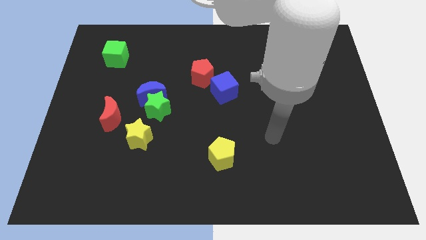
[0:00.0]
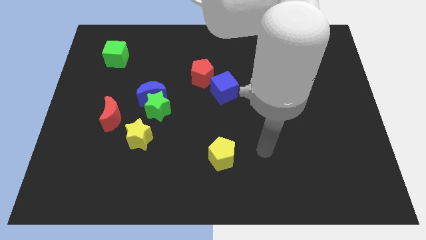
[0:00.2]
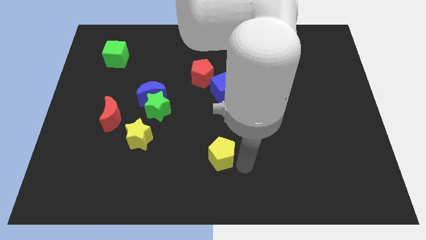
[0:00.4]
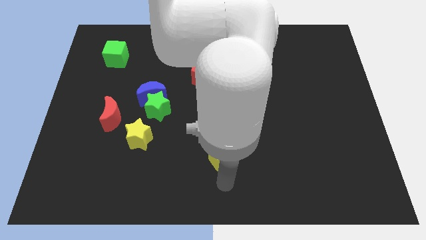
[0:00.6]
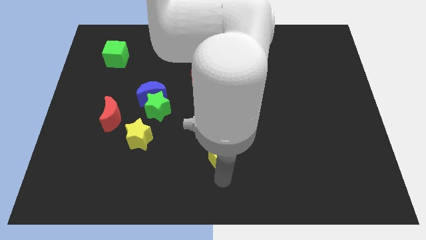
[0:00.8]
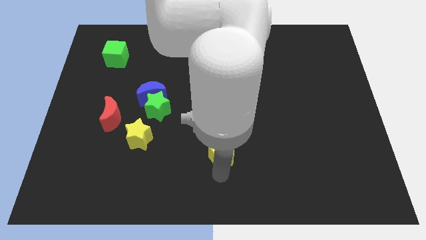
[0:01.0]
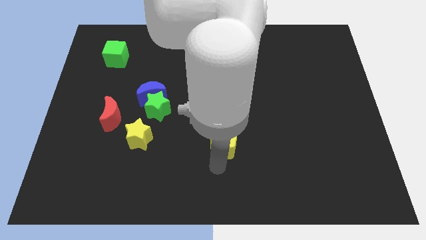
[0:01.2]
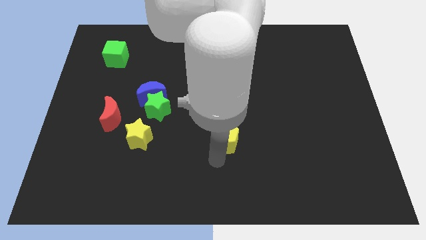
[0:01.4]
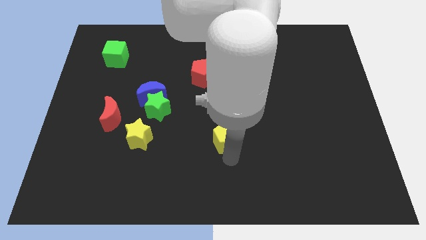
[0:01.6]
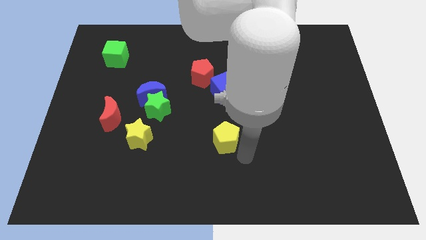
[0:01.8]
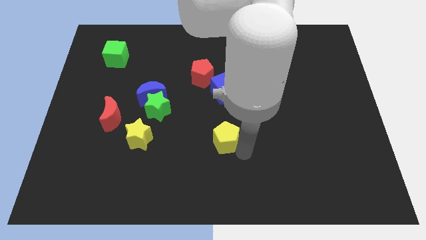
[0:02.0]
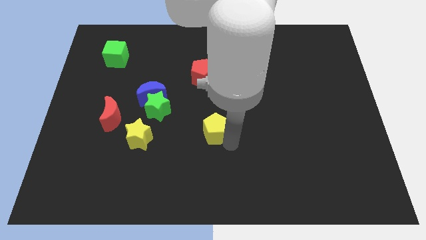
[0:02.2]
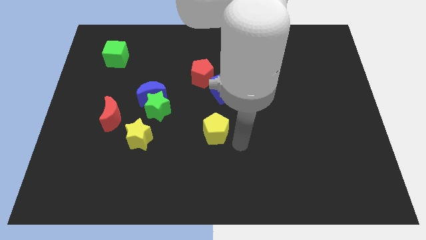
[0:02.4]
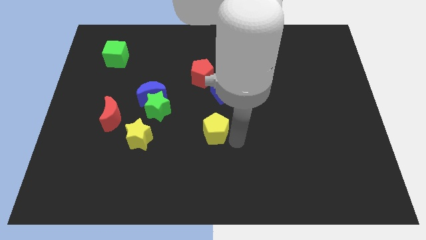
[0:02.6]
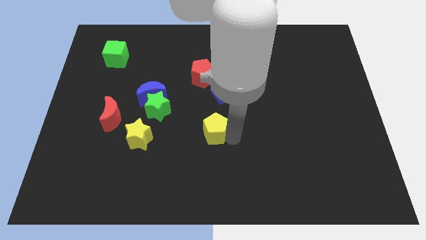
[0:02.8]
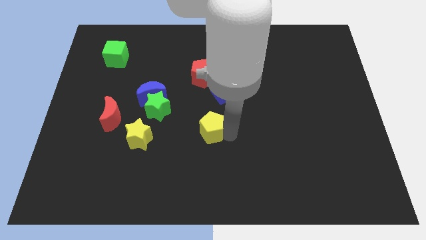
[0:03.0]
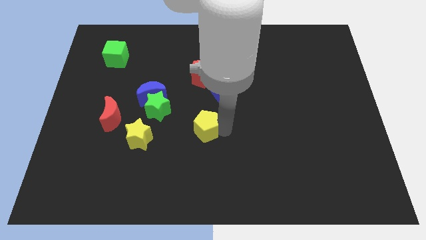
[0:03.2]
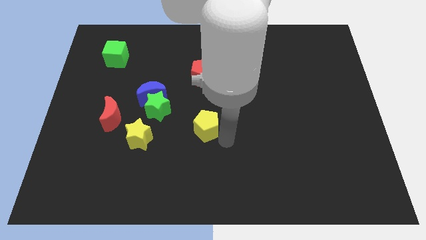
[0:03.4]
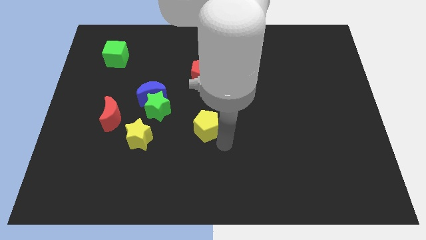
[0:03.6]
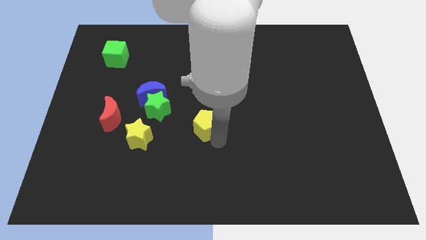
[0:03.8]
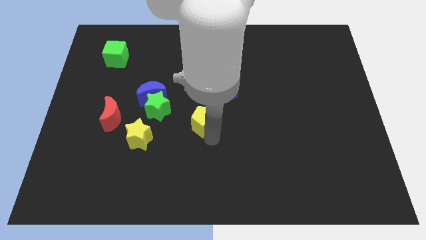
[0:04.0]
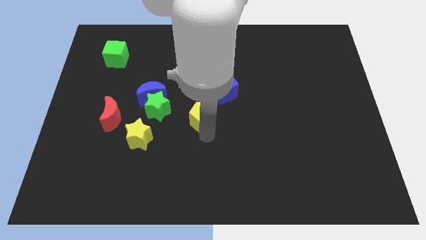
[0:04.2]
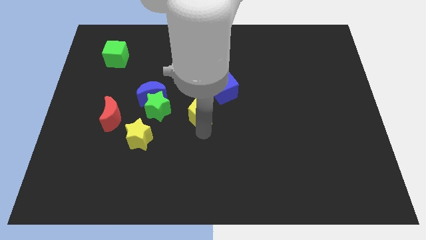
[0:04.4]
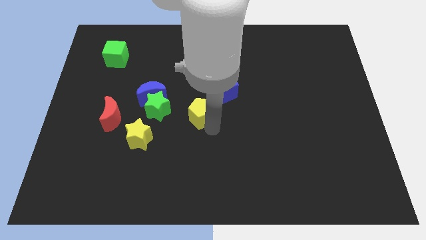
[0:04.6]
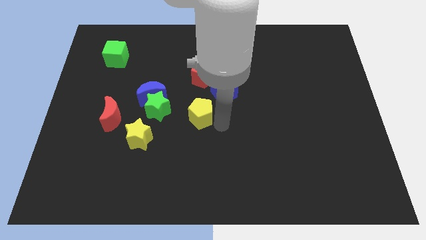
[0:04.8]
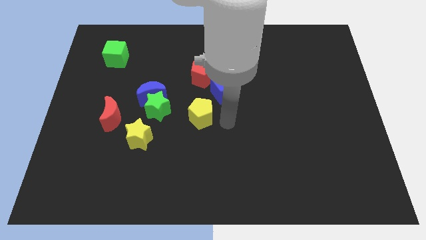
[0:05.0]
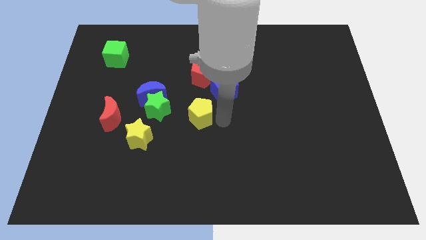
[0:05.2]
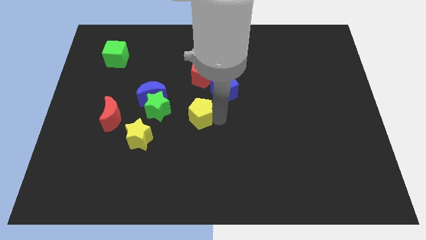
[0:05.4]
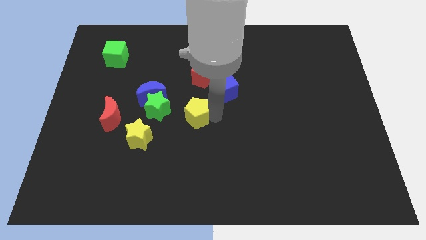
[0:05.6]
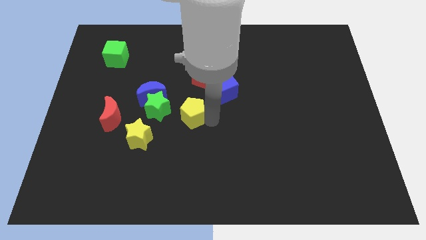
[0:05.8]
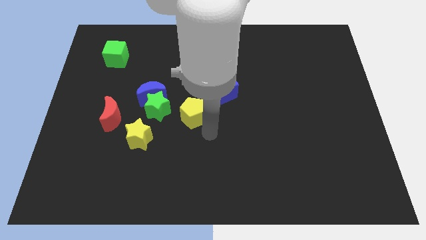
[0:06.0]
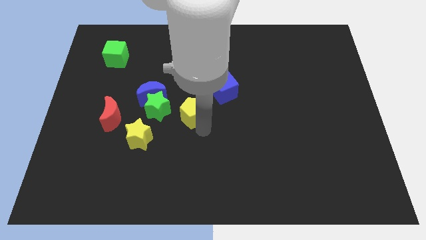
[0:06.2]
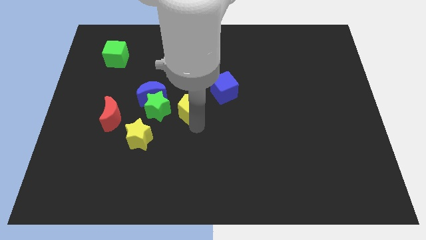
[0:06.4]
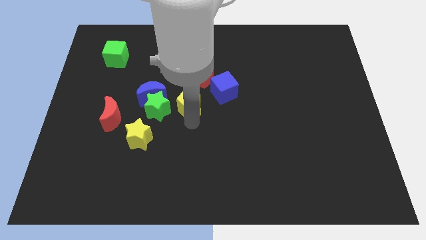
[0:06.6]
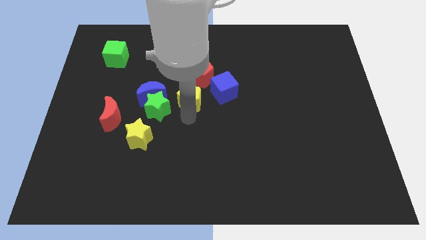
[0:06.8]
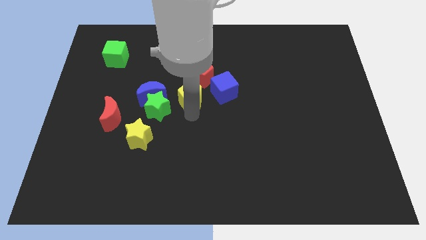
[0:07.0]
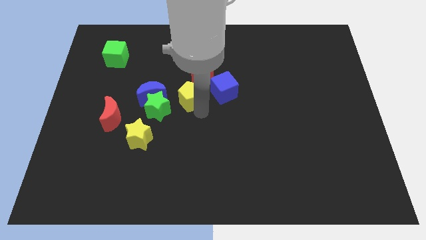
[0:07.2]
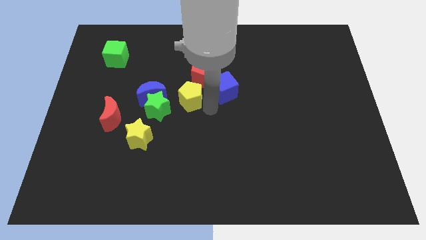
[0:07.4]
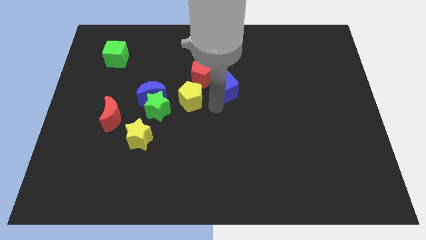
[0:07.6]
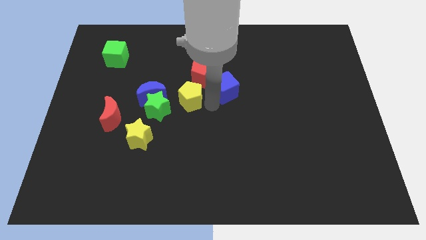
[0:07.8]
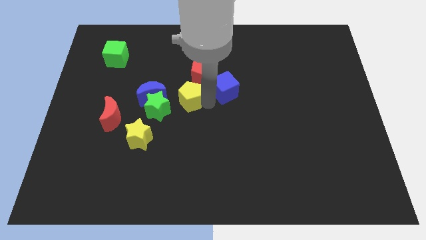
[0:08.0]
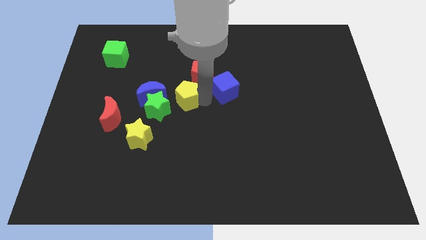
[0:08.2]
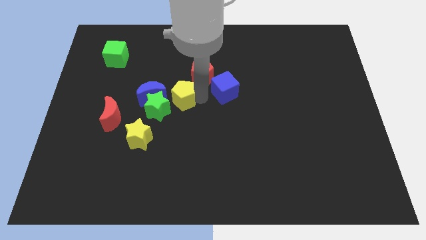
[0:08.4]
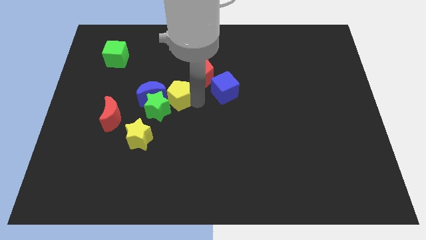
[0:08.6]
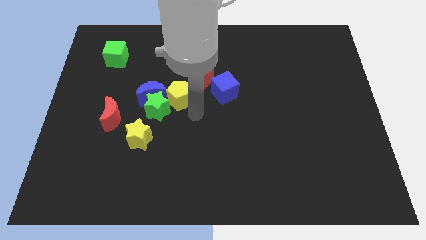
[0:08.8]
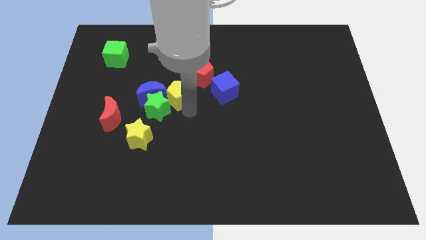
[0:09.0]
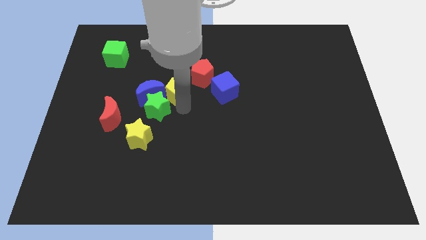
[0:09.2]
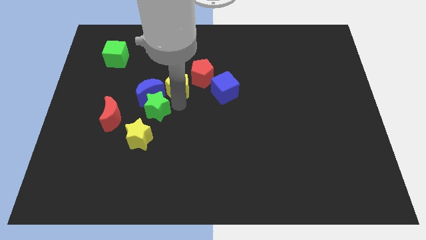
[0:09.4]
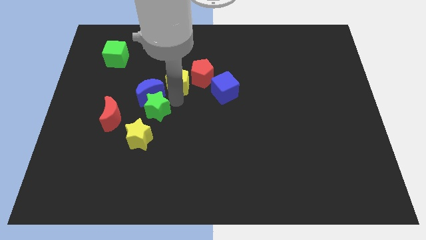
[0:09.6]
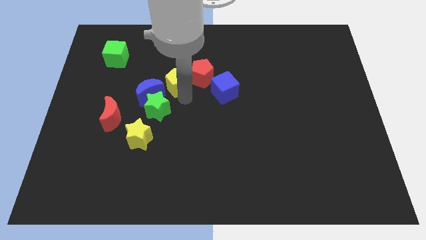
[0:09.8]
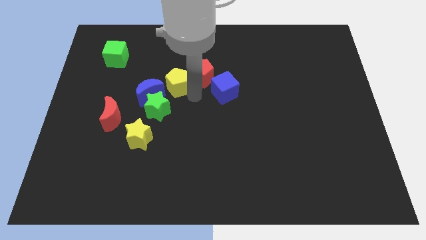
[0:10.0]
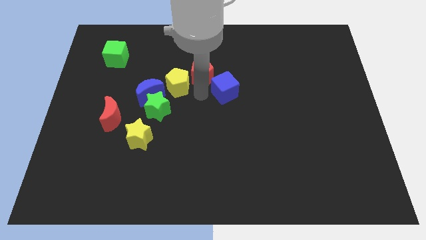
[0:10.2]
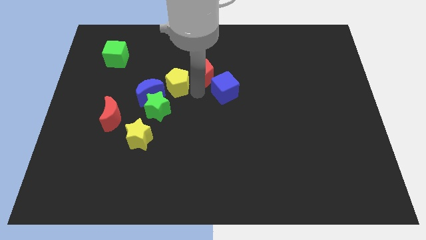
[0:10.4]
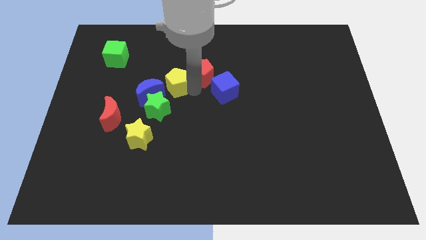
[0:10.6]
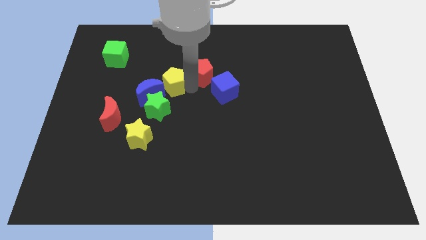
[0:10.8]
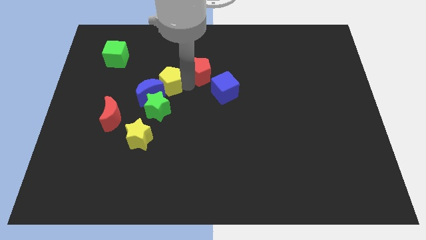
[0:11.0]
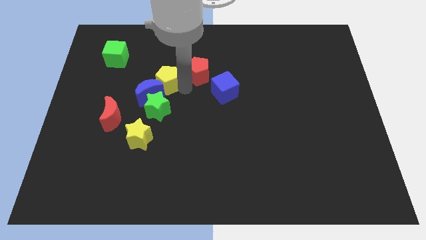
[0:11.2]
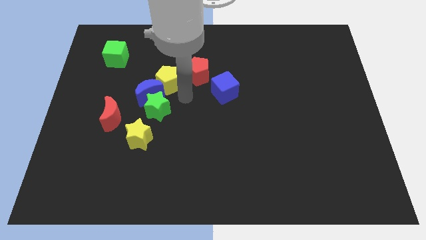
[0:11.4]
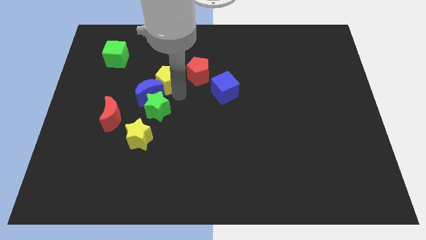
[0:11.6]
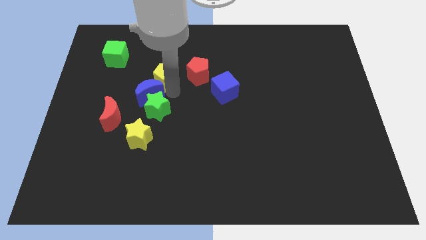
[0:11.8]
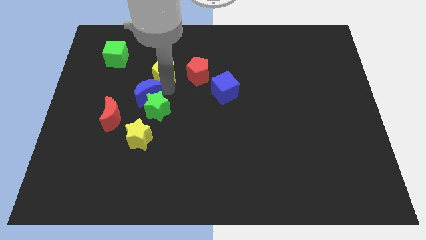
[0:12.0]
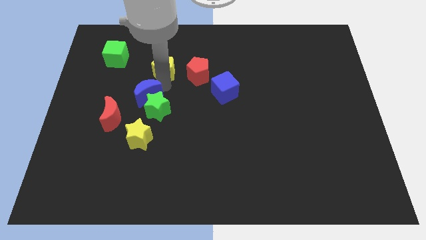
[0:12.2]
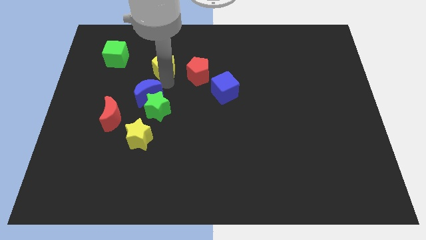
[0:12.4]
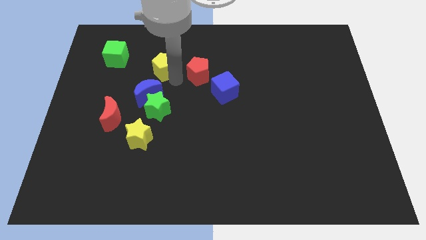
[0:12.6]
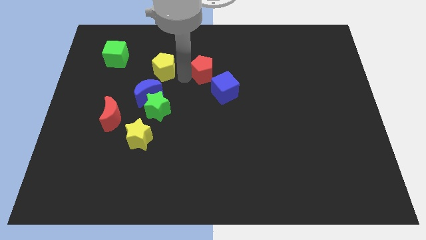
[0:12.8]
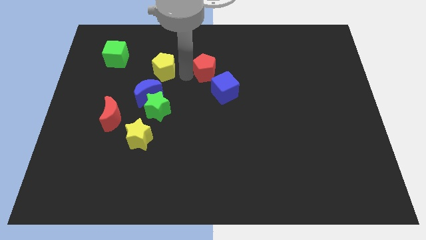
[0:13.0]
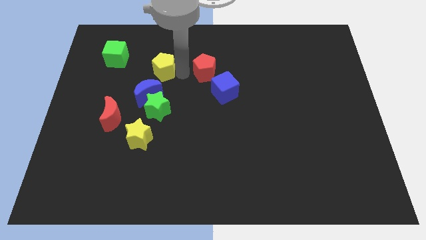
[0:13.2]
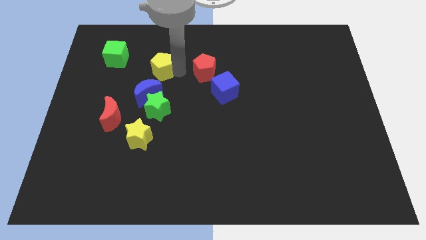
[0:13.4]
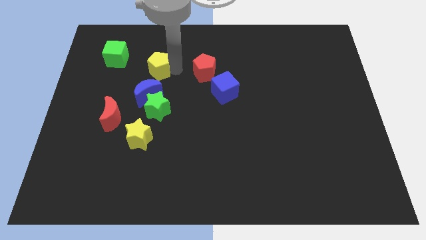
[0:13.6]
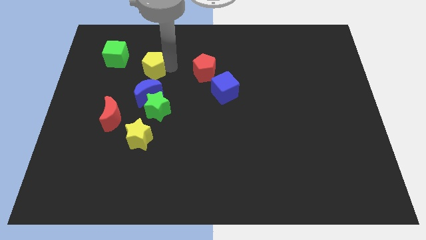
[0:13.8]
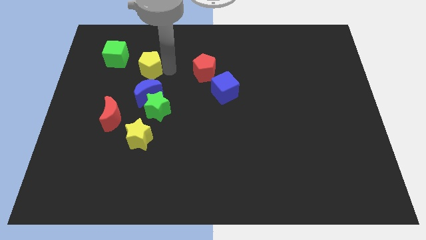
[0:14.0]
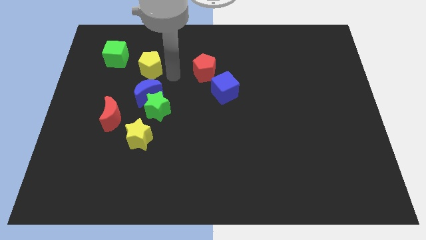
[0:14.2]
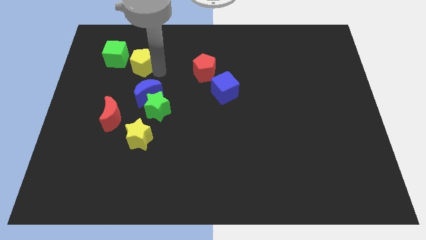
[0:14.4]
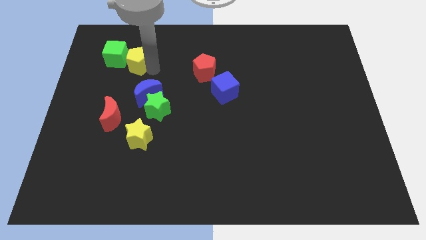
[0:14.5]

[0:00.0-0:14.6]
move the yellow pentagon to the green cube
